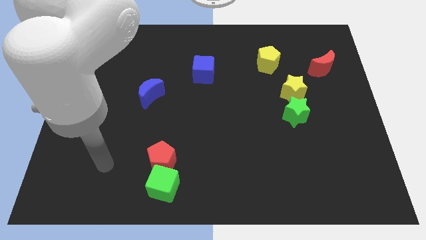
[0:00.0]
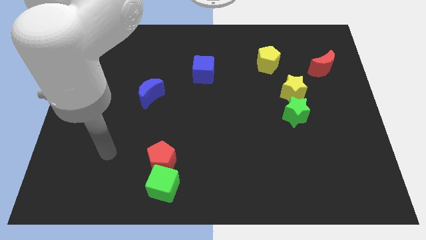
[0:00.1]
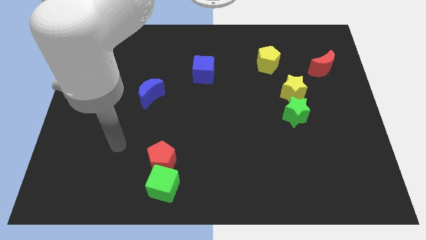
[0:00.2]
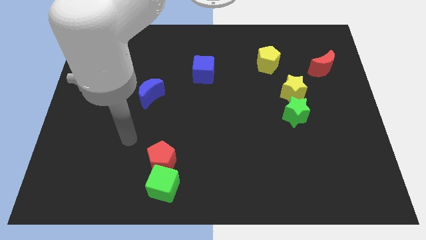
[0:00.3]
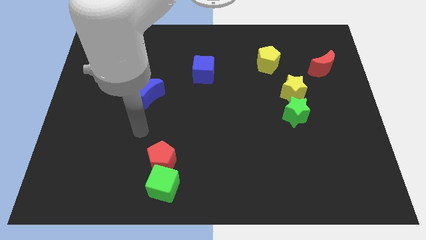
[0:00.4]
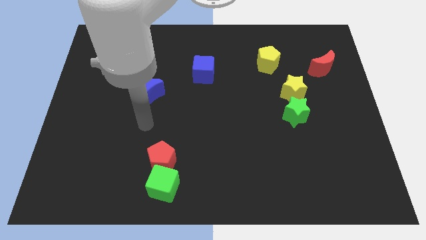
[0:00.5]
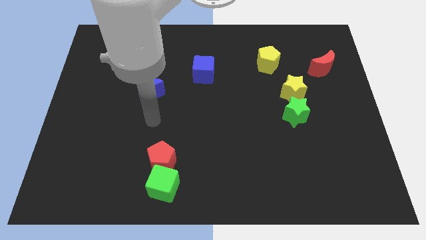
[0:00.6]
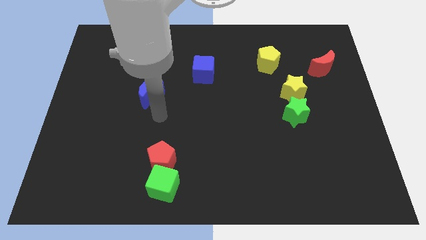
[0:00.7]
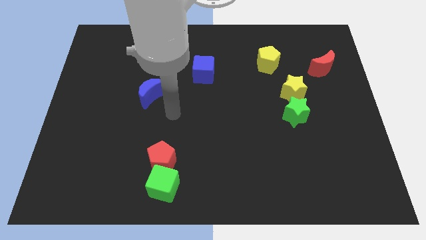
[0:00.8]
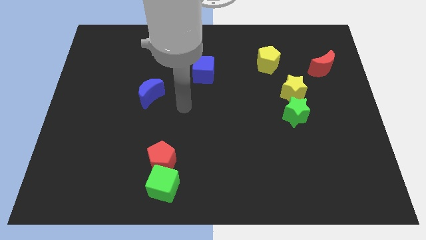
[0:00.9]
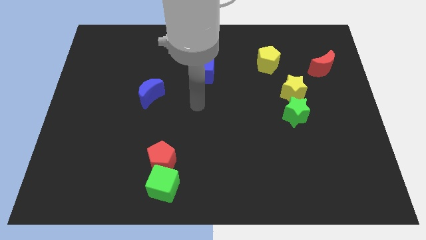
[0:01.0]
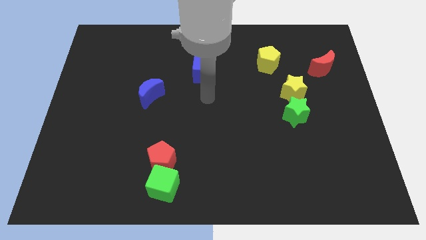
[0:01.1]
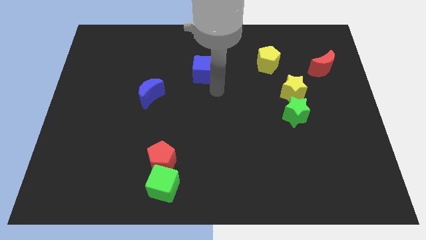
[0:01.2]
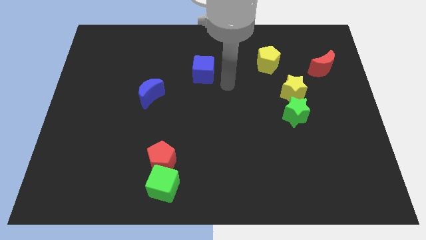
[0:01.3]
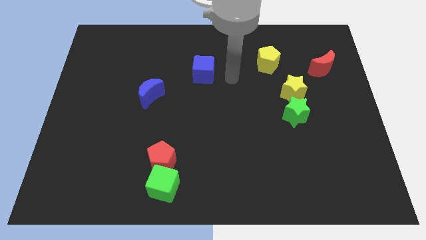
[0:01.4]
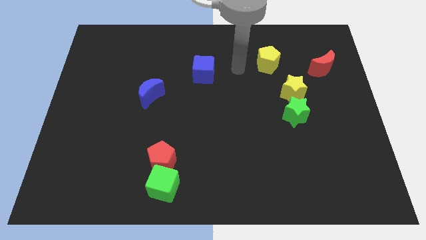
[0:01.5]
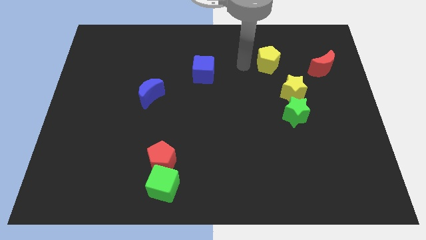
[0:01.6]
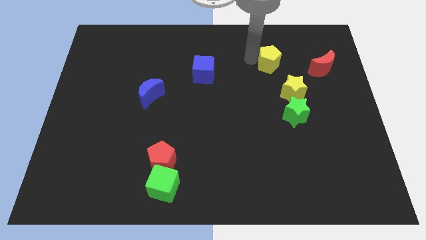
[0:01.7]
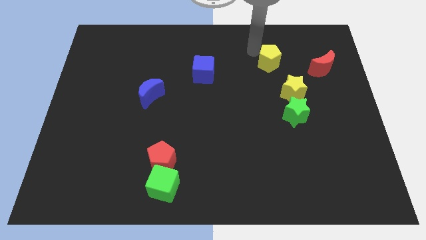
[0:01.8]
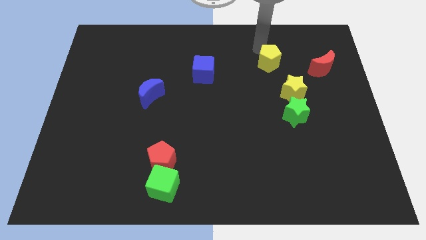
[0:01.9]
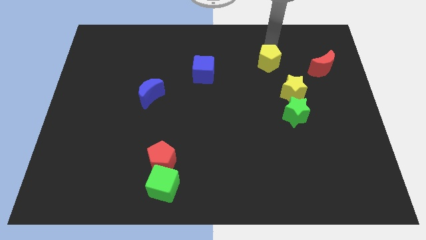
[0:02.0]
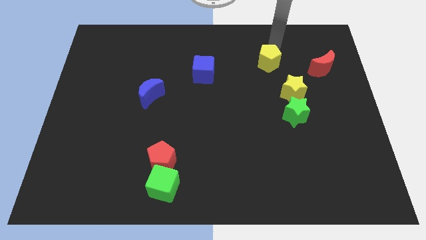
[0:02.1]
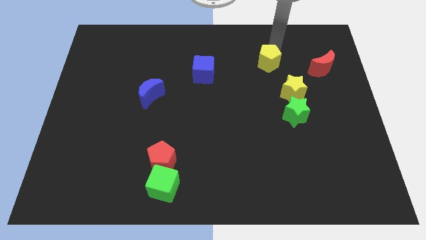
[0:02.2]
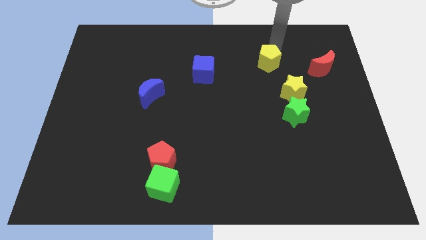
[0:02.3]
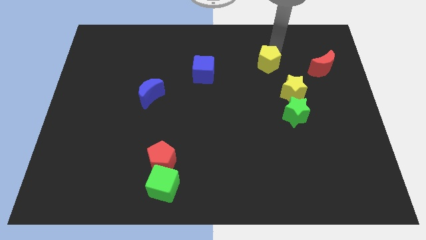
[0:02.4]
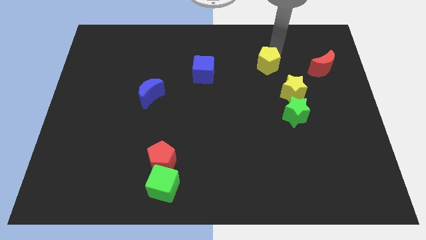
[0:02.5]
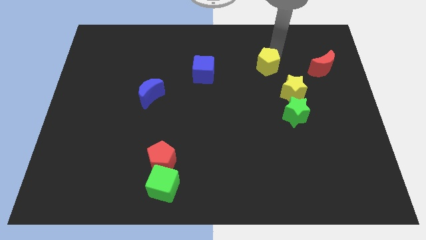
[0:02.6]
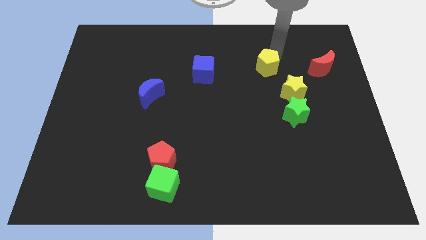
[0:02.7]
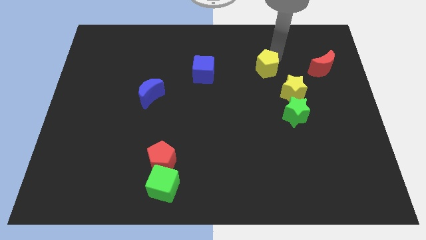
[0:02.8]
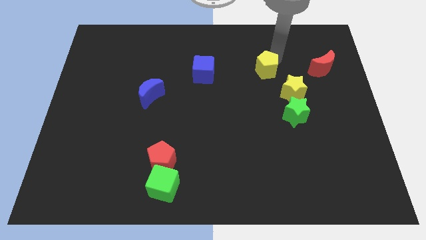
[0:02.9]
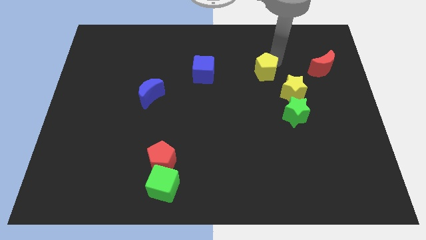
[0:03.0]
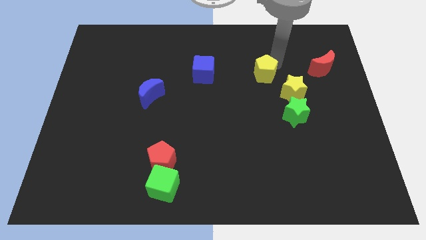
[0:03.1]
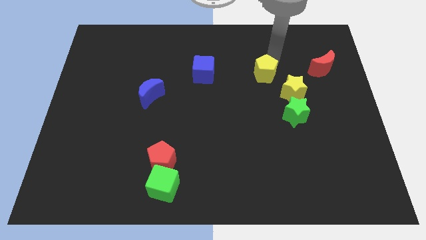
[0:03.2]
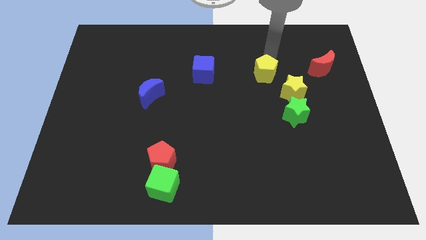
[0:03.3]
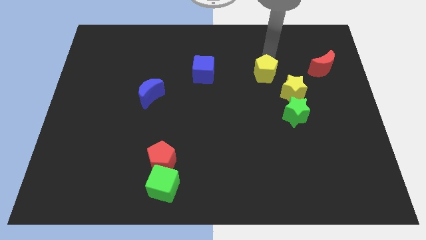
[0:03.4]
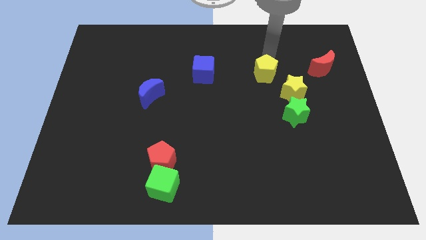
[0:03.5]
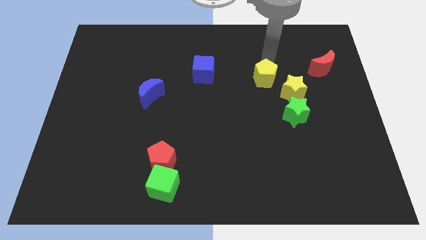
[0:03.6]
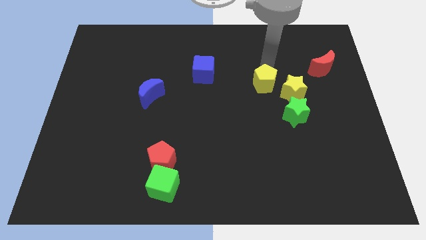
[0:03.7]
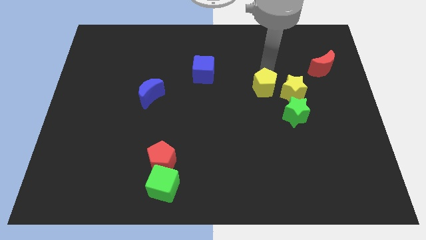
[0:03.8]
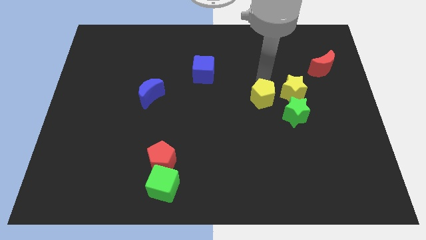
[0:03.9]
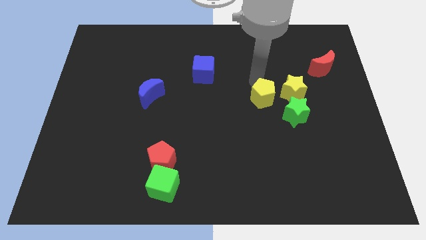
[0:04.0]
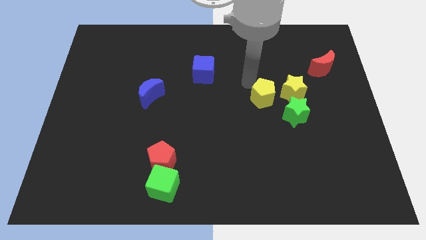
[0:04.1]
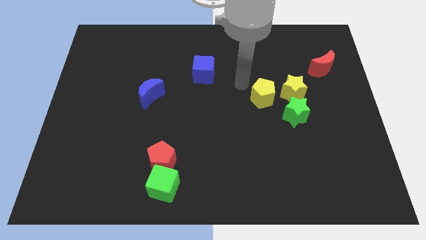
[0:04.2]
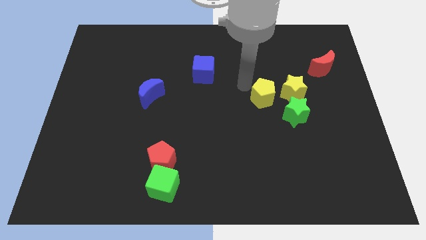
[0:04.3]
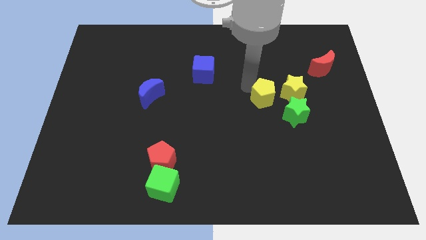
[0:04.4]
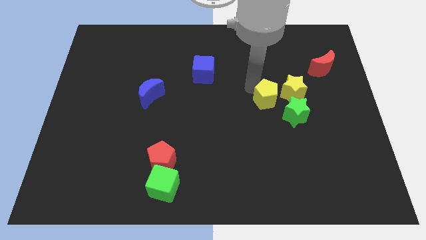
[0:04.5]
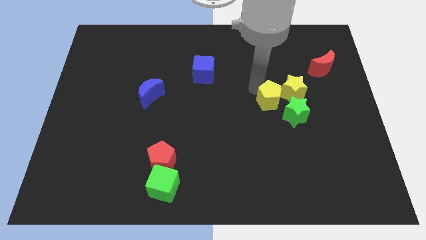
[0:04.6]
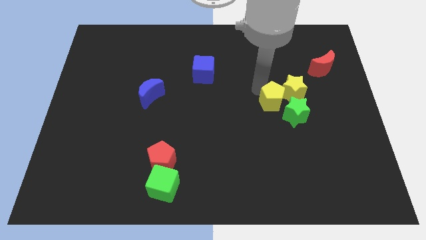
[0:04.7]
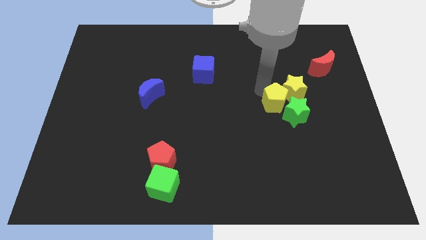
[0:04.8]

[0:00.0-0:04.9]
put the yellow pentagon next to the green star

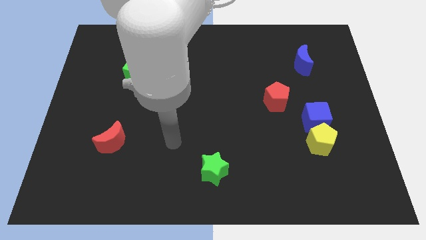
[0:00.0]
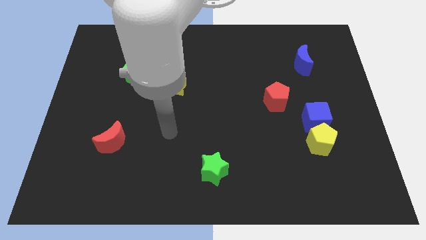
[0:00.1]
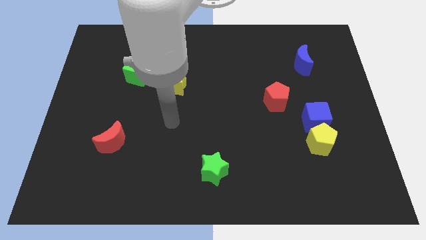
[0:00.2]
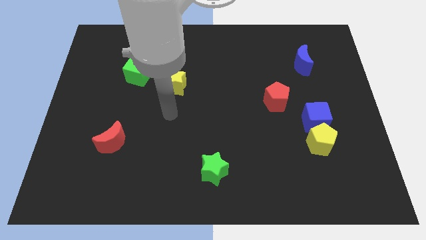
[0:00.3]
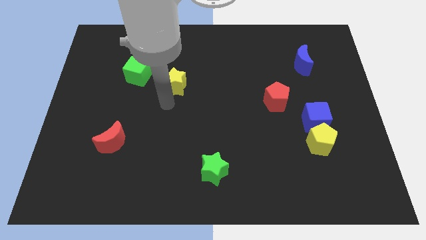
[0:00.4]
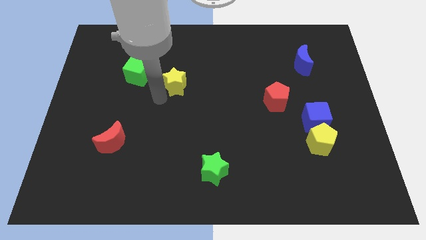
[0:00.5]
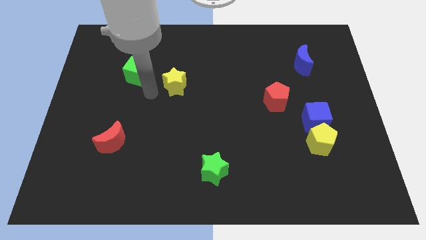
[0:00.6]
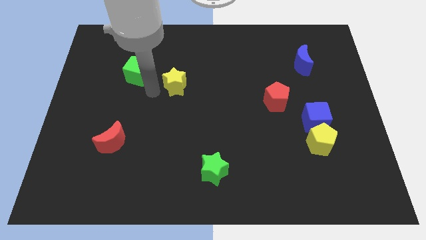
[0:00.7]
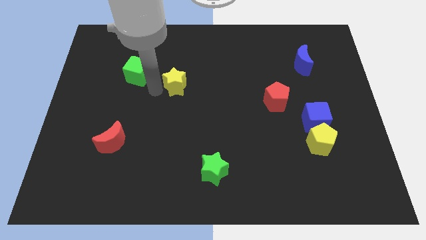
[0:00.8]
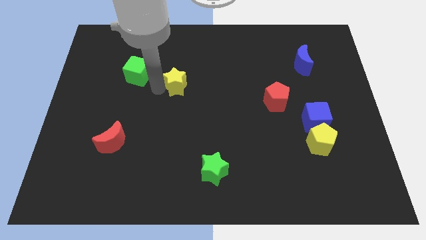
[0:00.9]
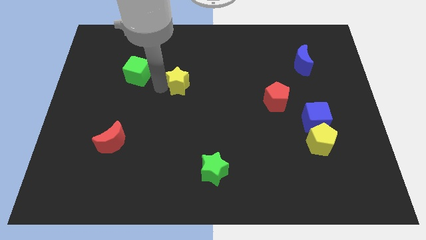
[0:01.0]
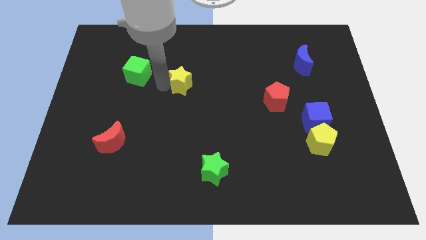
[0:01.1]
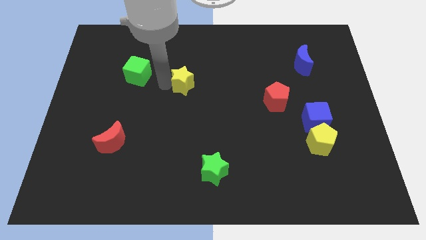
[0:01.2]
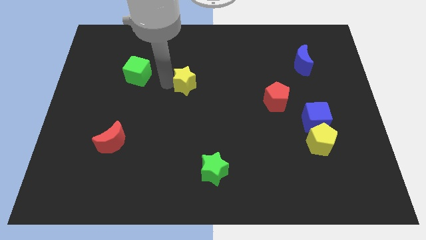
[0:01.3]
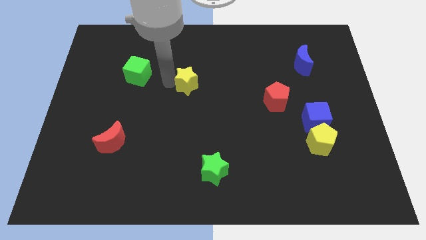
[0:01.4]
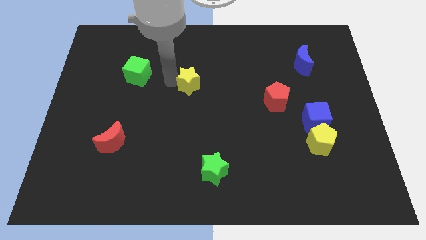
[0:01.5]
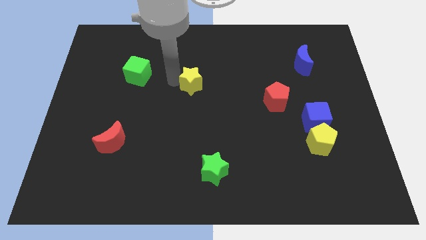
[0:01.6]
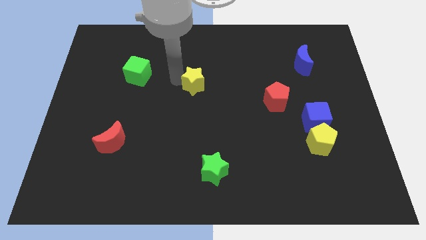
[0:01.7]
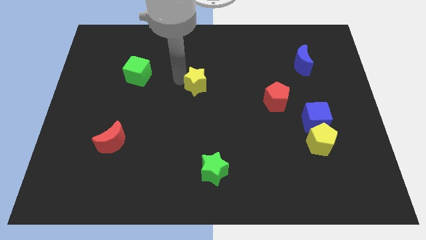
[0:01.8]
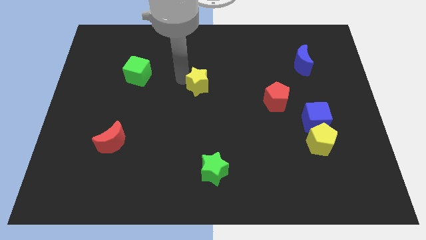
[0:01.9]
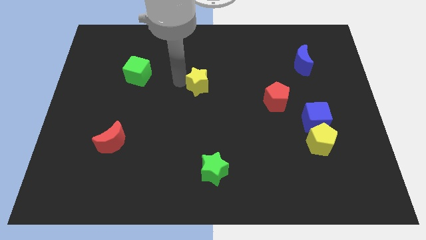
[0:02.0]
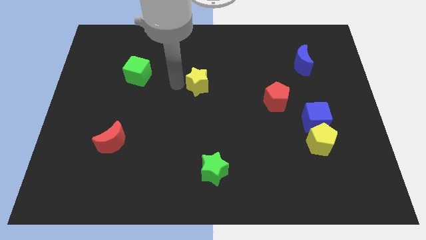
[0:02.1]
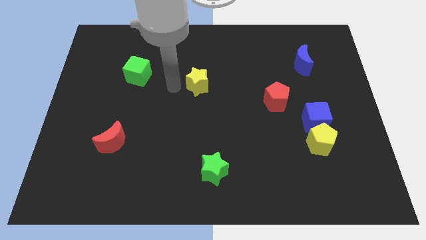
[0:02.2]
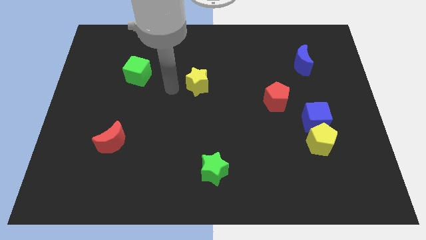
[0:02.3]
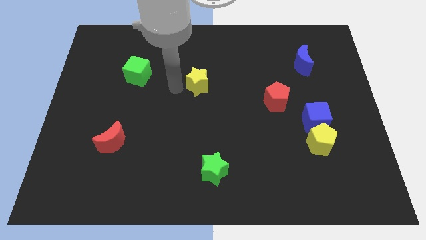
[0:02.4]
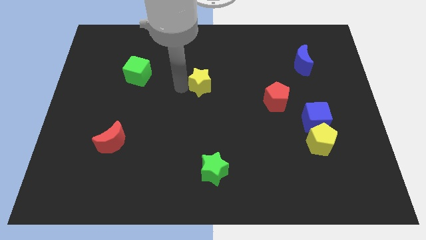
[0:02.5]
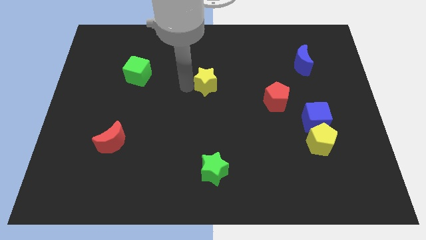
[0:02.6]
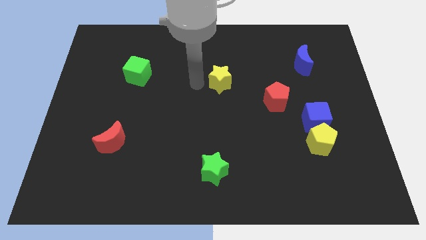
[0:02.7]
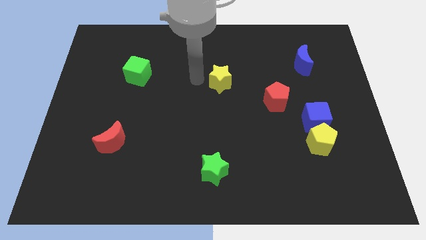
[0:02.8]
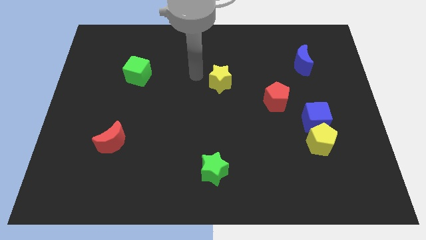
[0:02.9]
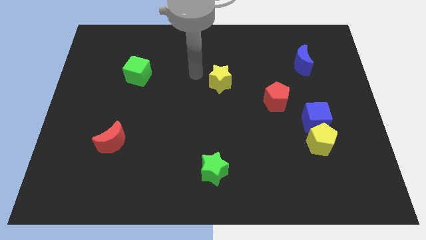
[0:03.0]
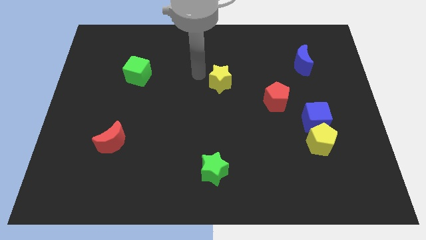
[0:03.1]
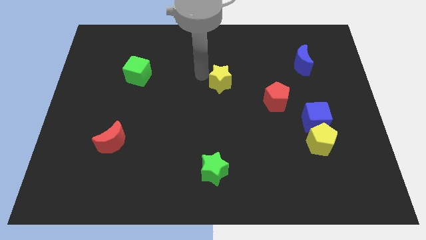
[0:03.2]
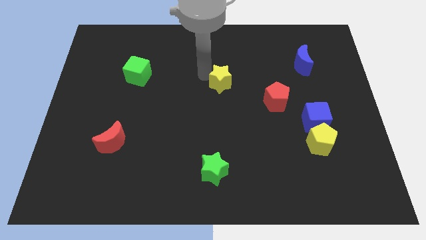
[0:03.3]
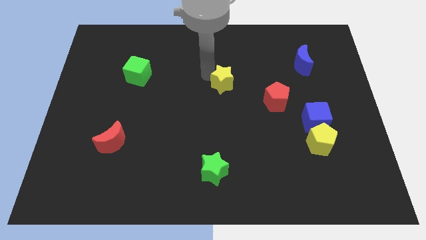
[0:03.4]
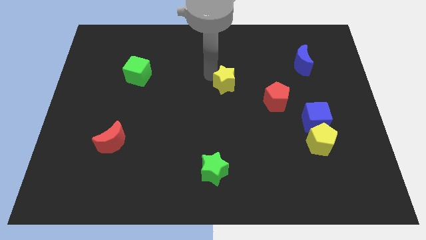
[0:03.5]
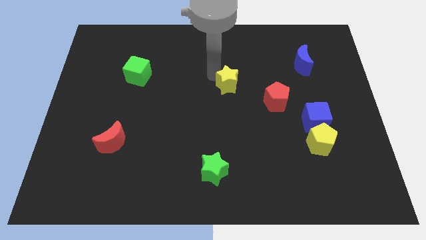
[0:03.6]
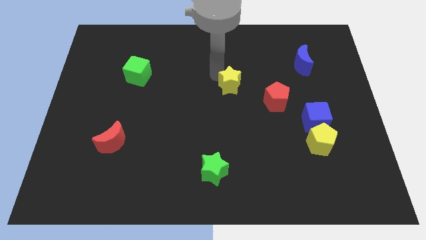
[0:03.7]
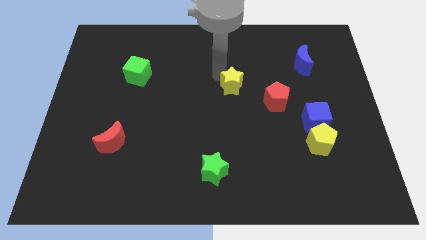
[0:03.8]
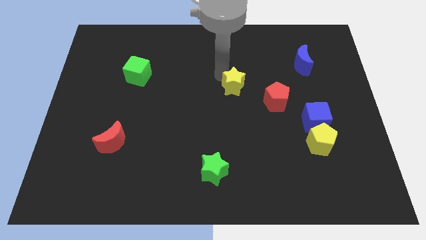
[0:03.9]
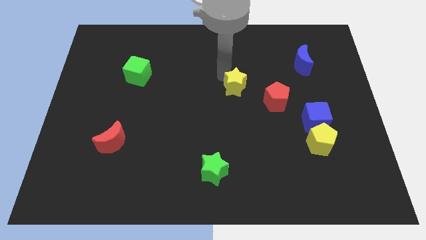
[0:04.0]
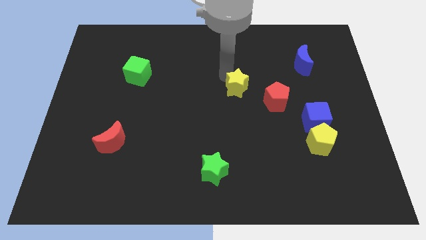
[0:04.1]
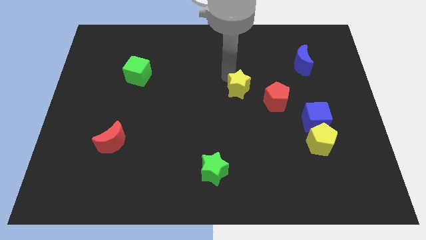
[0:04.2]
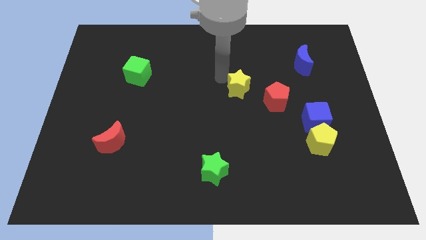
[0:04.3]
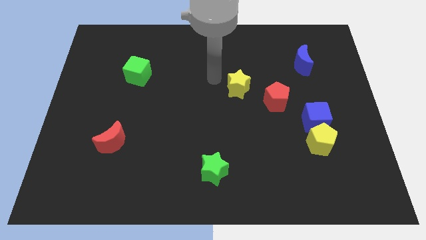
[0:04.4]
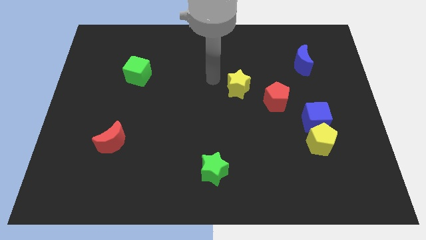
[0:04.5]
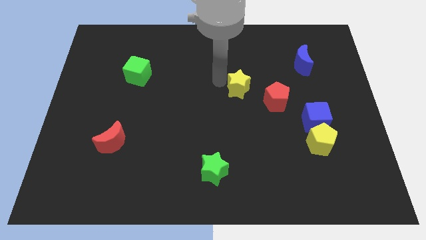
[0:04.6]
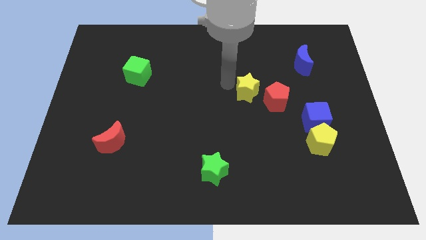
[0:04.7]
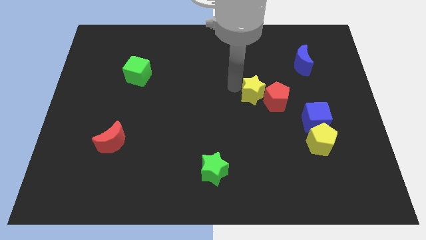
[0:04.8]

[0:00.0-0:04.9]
push the yellow star close to the red pentagon
